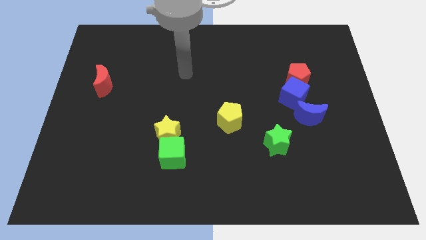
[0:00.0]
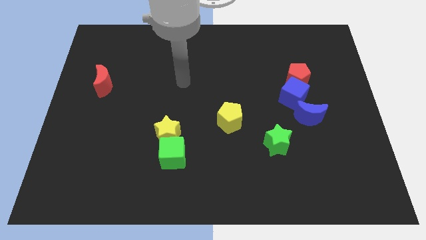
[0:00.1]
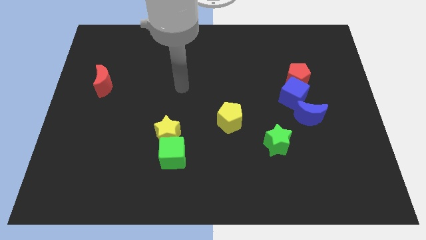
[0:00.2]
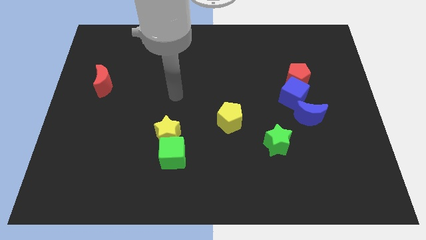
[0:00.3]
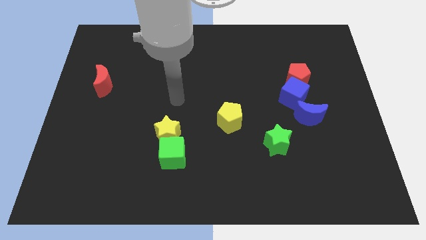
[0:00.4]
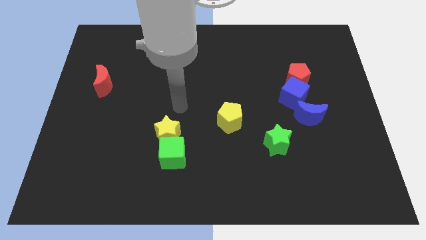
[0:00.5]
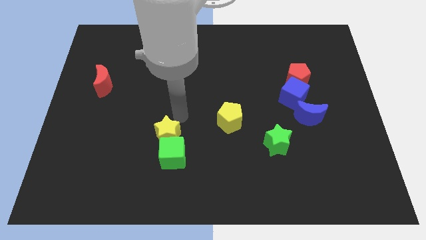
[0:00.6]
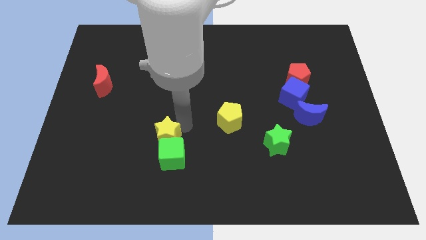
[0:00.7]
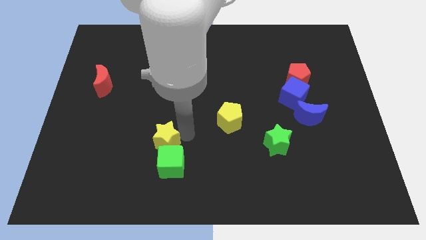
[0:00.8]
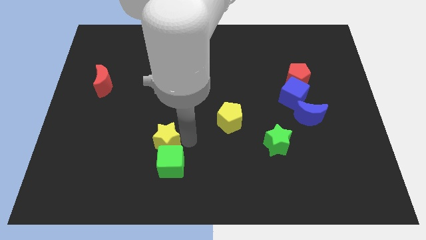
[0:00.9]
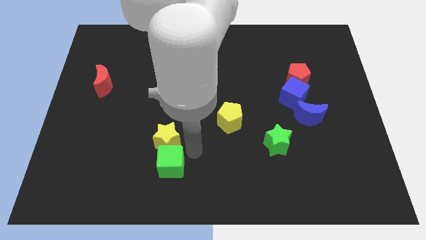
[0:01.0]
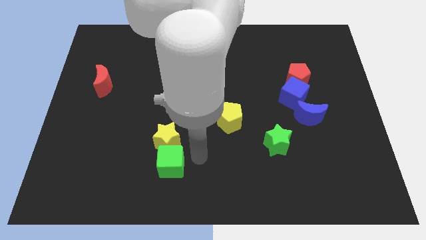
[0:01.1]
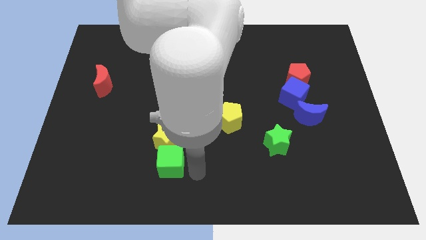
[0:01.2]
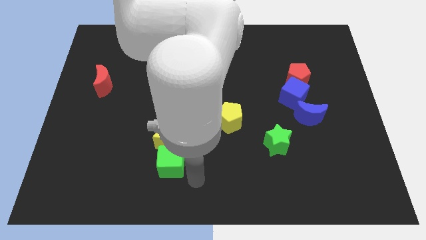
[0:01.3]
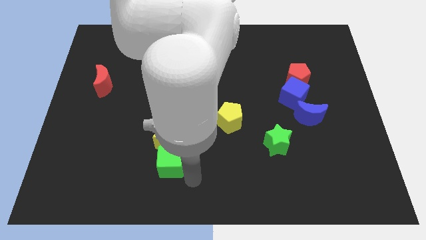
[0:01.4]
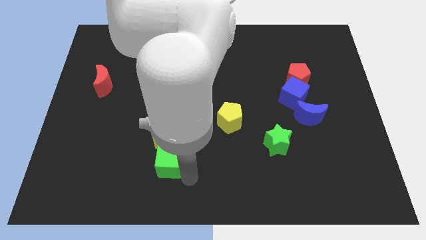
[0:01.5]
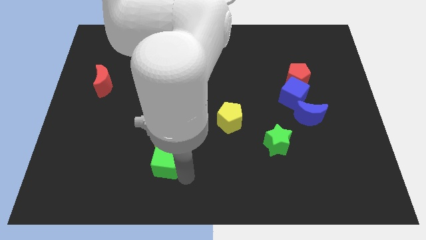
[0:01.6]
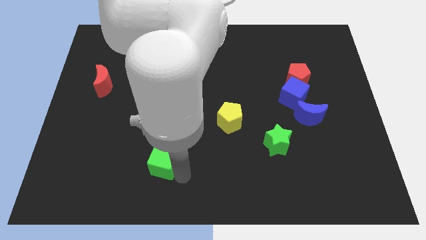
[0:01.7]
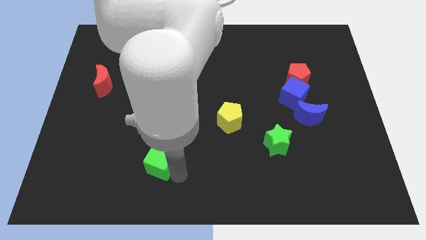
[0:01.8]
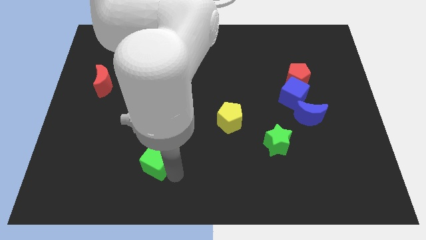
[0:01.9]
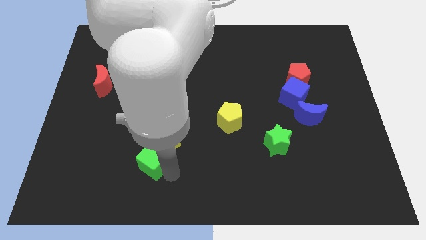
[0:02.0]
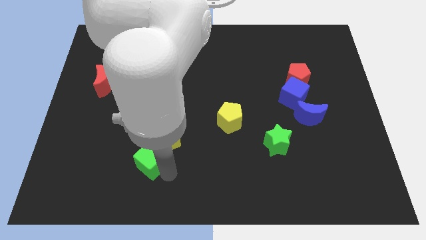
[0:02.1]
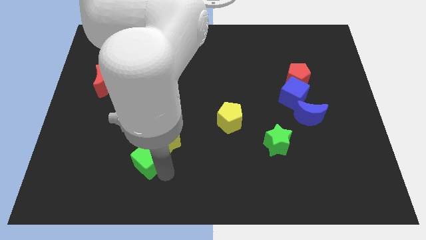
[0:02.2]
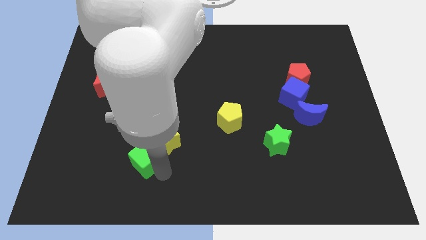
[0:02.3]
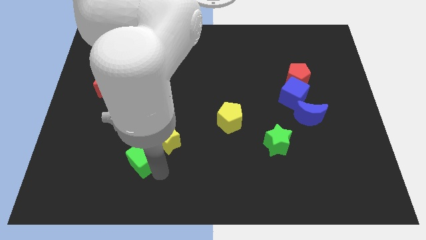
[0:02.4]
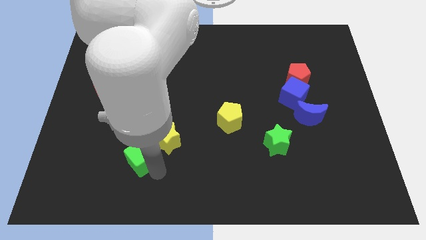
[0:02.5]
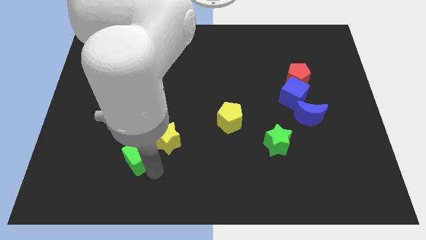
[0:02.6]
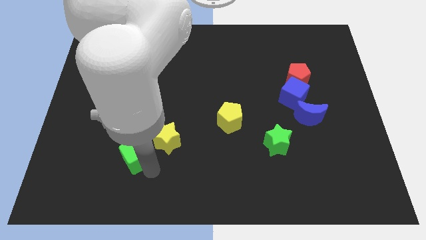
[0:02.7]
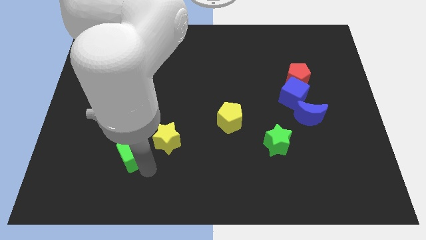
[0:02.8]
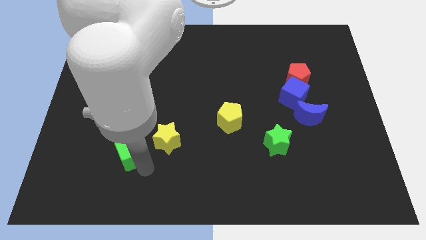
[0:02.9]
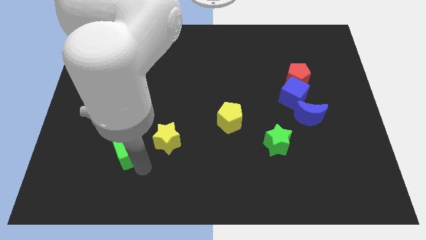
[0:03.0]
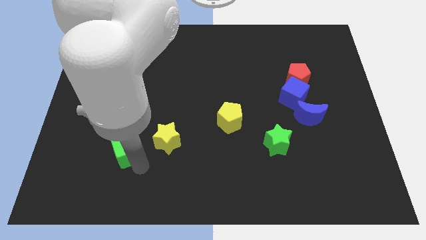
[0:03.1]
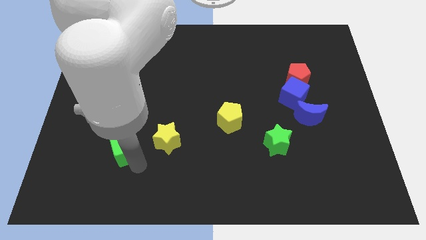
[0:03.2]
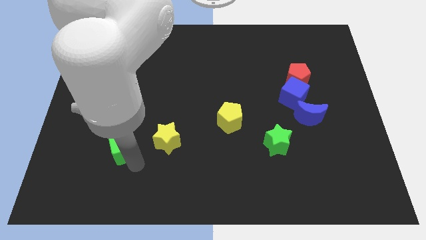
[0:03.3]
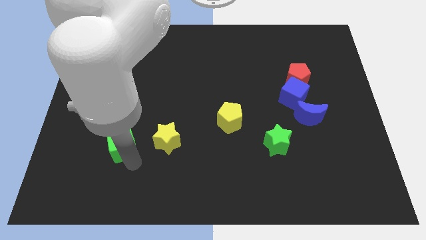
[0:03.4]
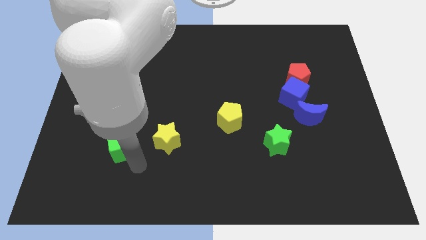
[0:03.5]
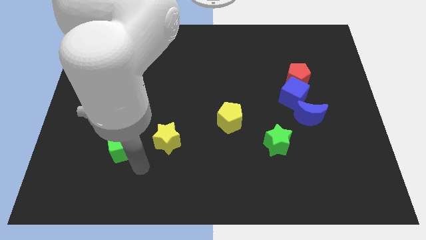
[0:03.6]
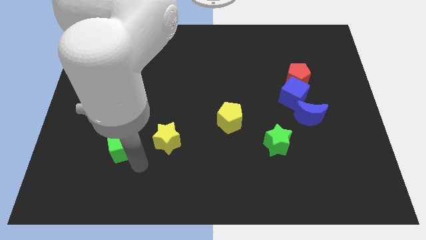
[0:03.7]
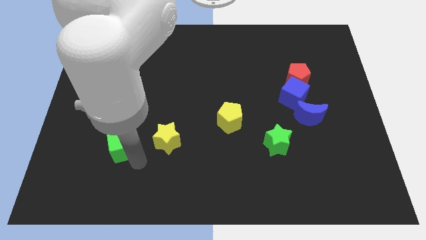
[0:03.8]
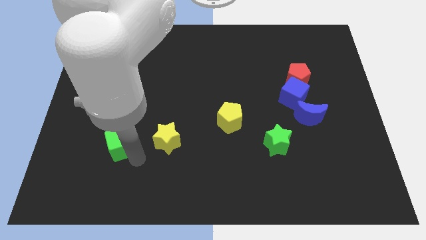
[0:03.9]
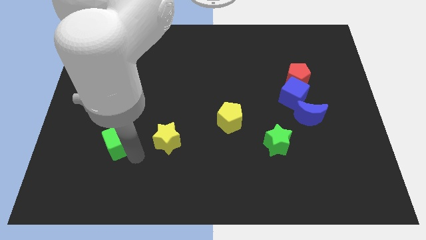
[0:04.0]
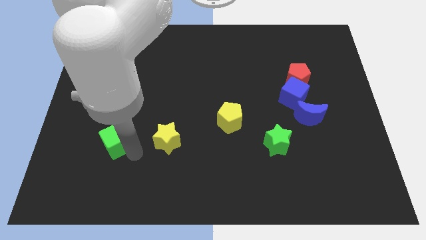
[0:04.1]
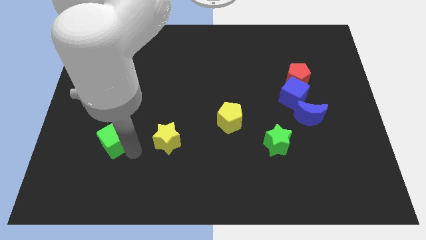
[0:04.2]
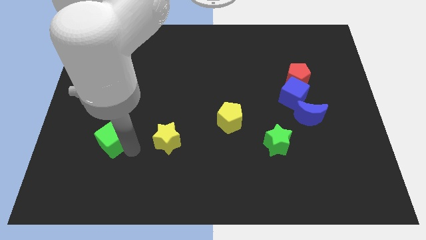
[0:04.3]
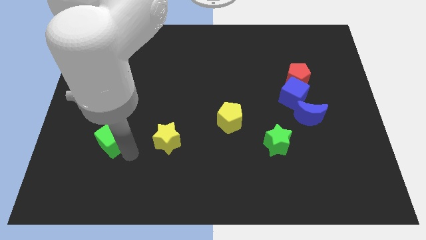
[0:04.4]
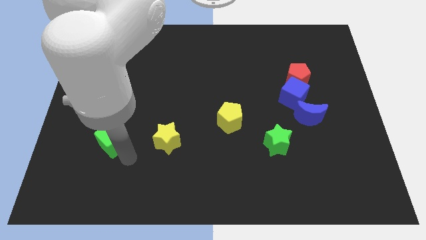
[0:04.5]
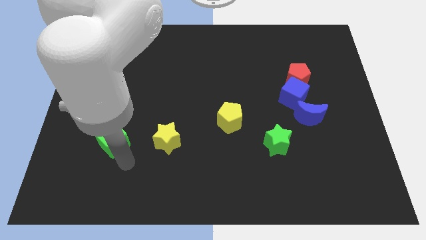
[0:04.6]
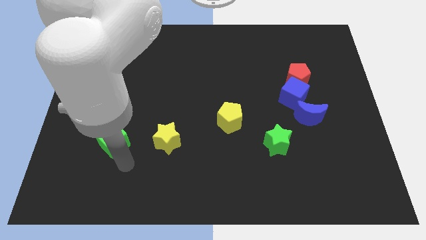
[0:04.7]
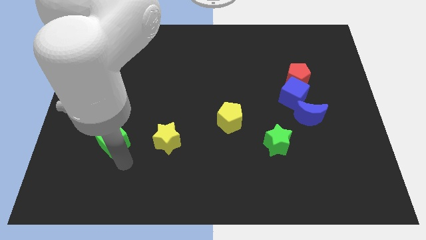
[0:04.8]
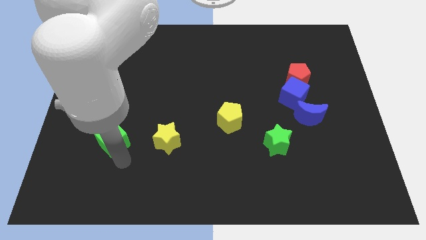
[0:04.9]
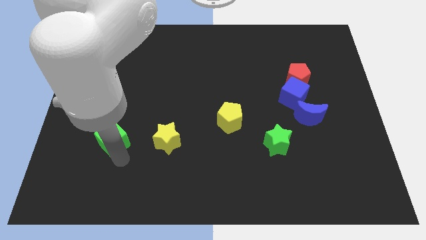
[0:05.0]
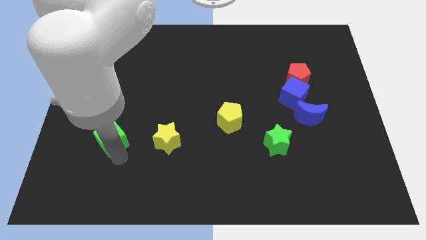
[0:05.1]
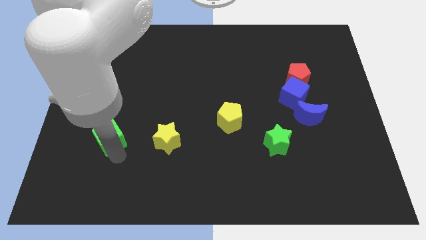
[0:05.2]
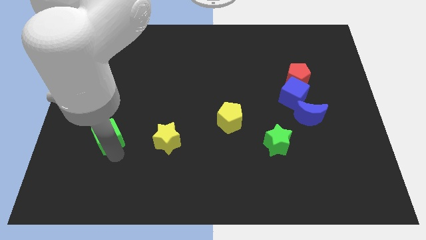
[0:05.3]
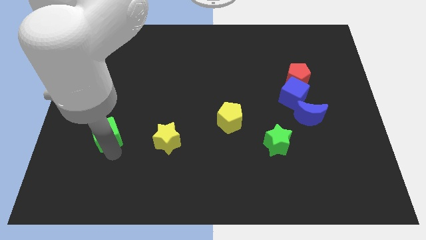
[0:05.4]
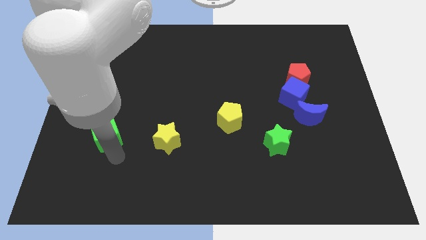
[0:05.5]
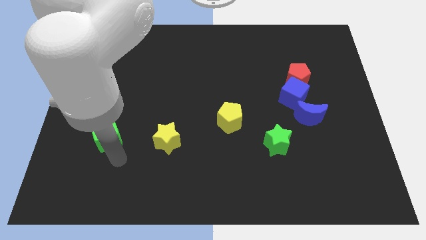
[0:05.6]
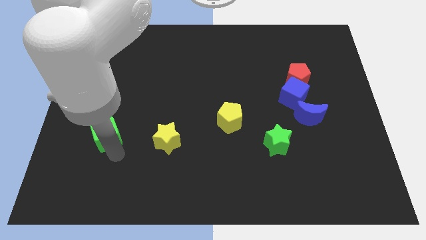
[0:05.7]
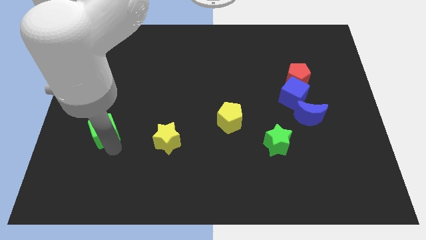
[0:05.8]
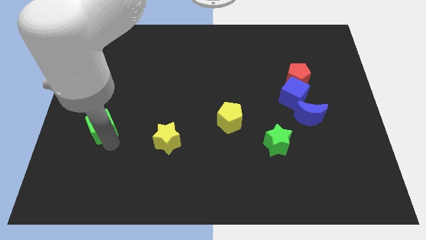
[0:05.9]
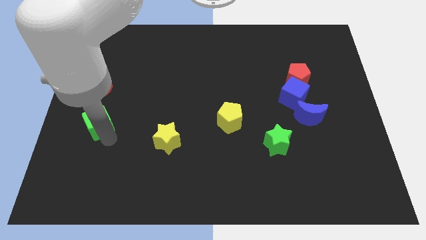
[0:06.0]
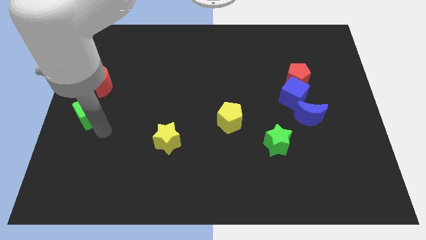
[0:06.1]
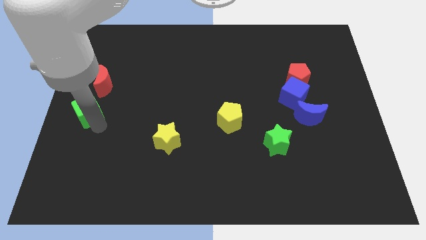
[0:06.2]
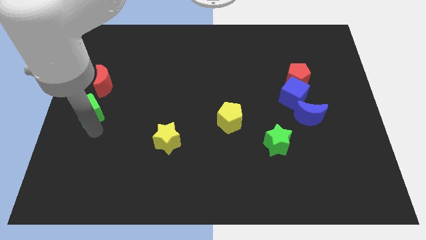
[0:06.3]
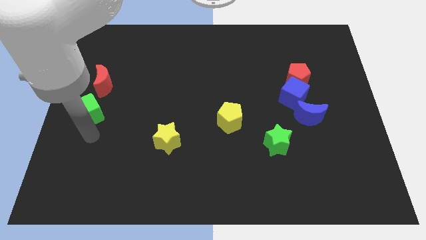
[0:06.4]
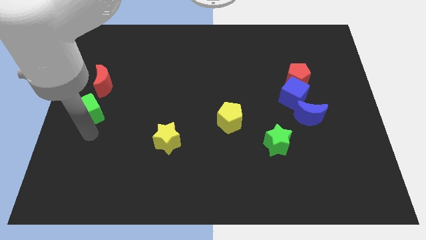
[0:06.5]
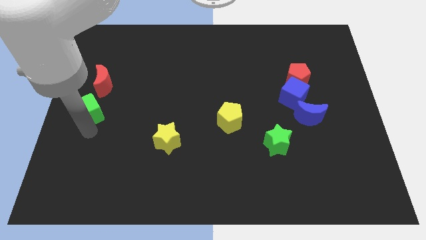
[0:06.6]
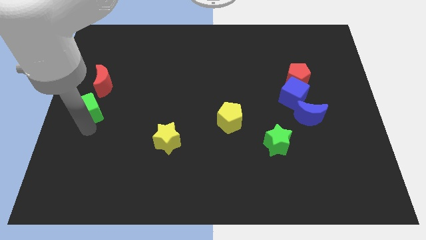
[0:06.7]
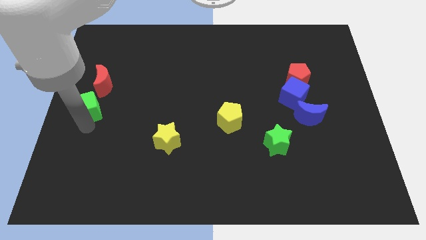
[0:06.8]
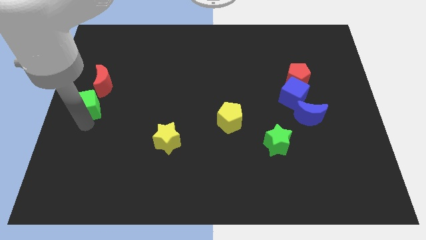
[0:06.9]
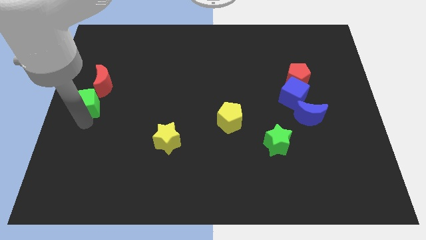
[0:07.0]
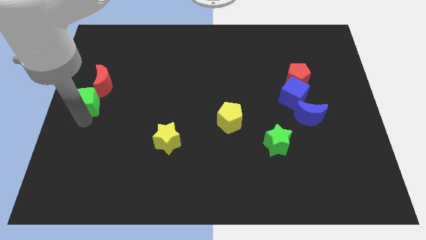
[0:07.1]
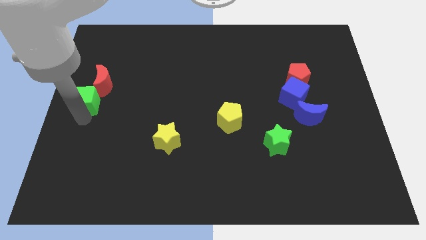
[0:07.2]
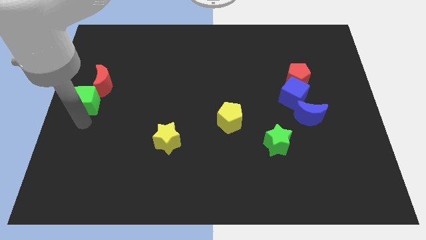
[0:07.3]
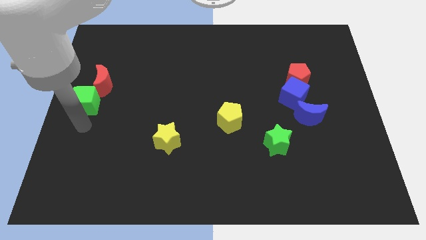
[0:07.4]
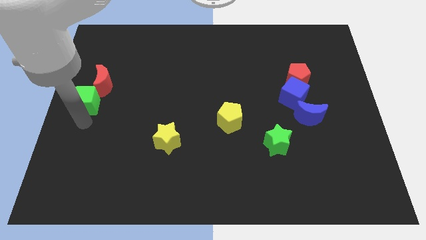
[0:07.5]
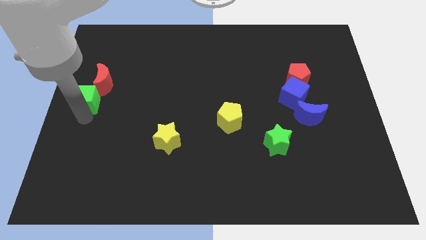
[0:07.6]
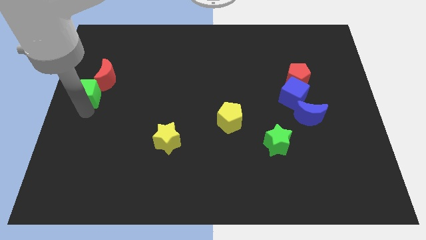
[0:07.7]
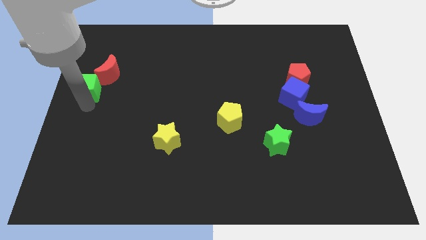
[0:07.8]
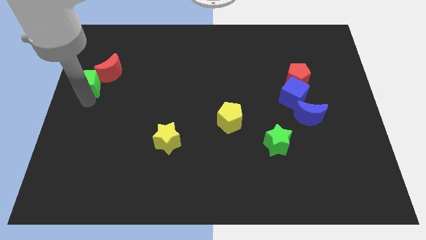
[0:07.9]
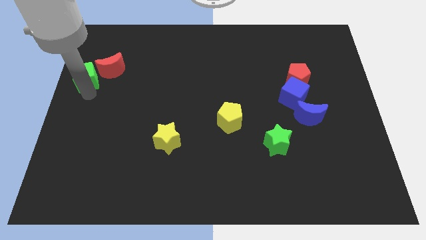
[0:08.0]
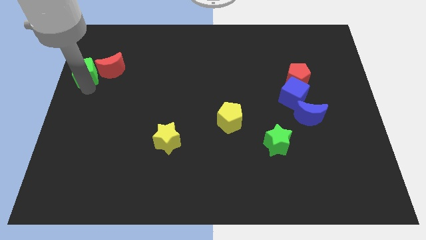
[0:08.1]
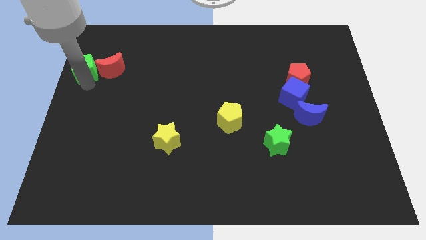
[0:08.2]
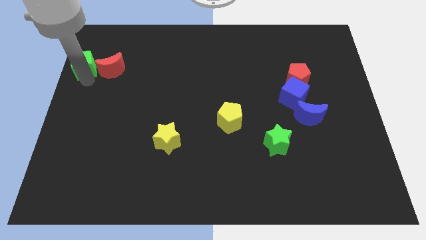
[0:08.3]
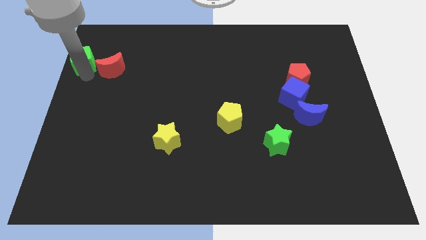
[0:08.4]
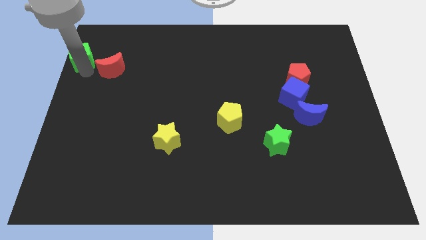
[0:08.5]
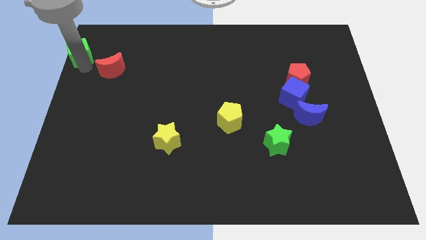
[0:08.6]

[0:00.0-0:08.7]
push the green cube to the top left
